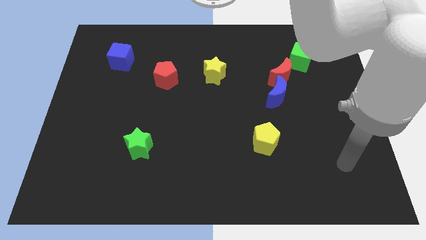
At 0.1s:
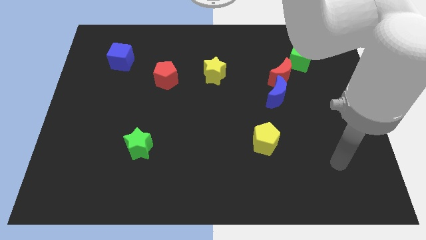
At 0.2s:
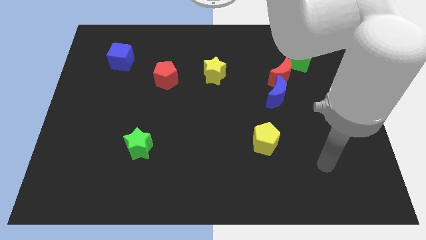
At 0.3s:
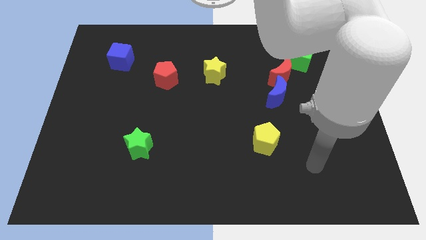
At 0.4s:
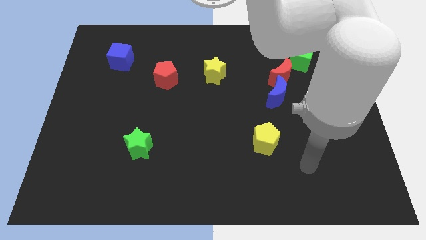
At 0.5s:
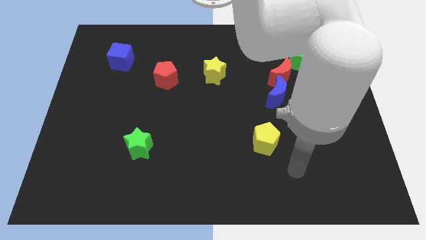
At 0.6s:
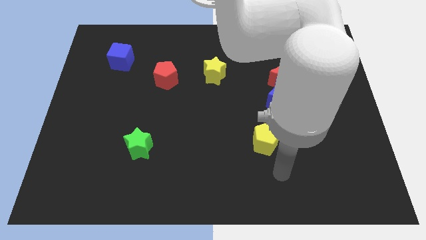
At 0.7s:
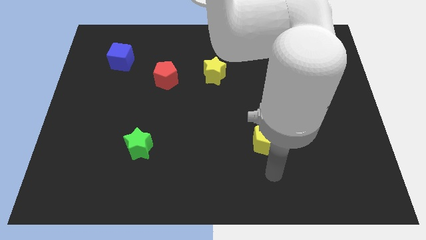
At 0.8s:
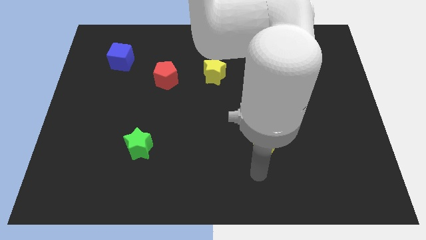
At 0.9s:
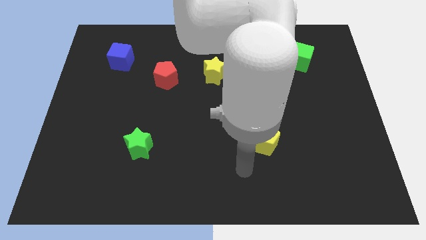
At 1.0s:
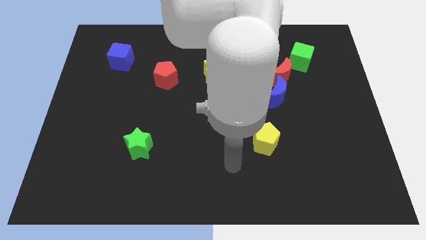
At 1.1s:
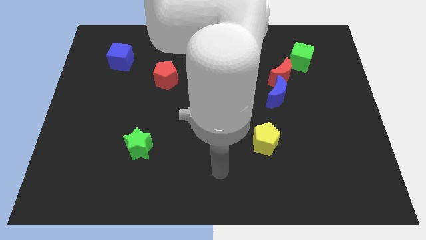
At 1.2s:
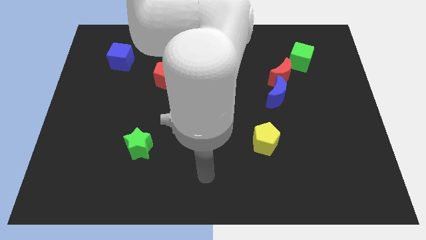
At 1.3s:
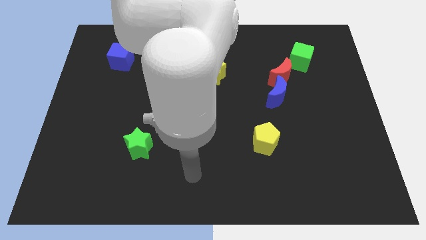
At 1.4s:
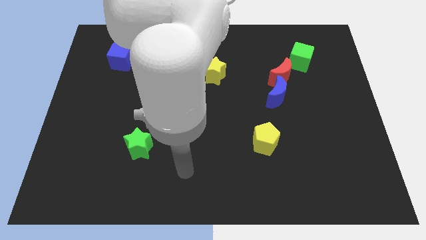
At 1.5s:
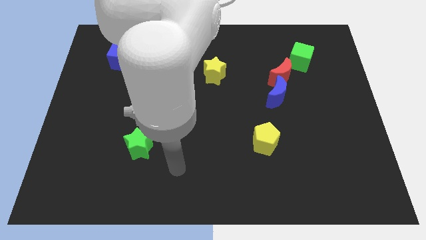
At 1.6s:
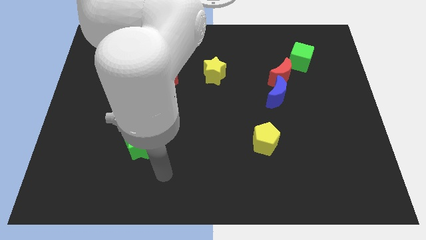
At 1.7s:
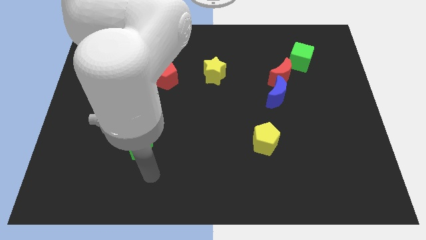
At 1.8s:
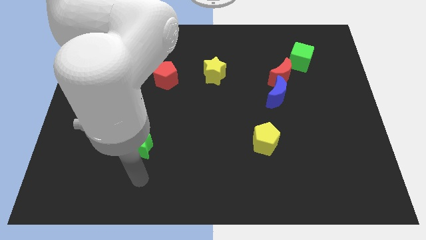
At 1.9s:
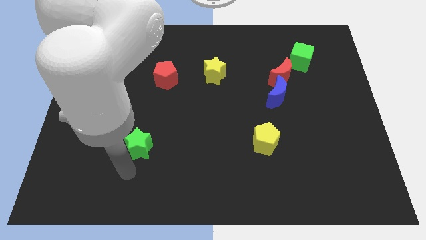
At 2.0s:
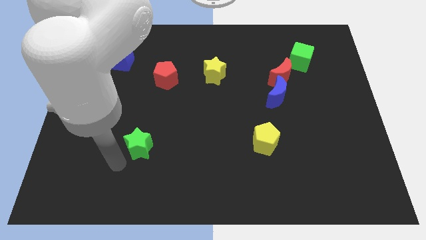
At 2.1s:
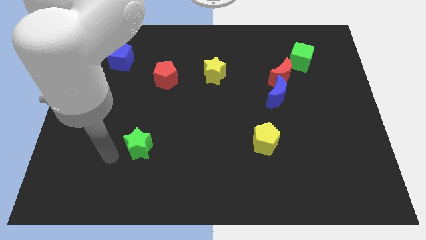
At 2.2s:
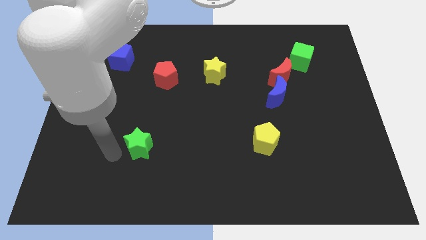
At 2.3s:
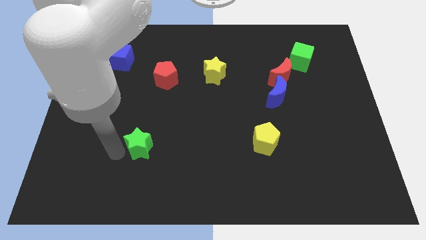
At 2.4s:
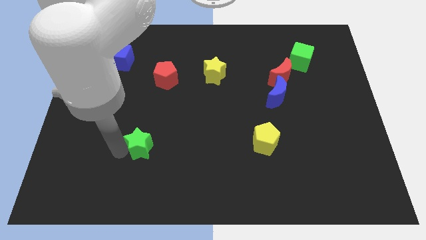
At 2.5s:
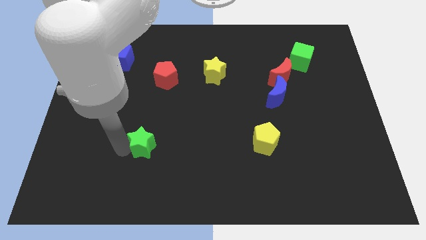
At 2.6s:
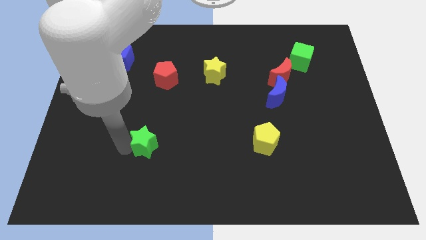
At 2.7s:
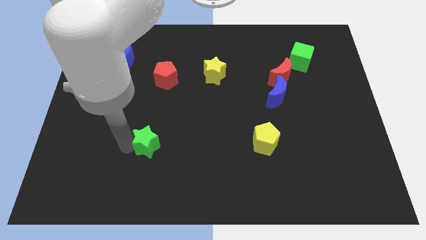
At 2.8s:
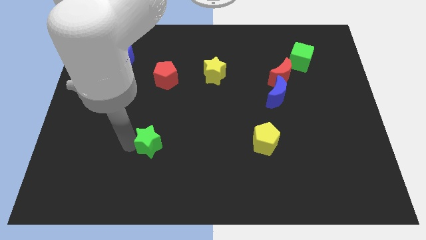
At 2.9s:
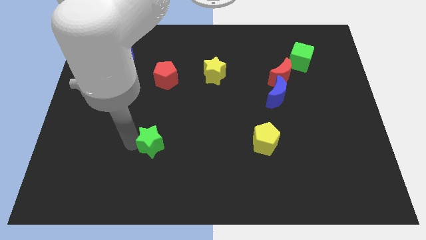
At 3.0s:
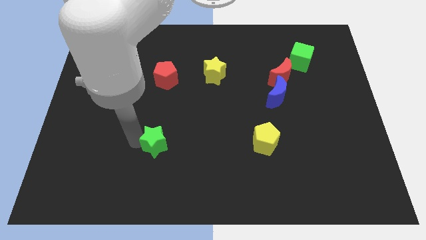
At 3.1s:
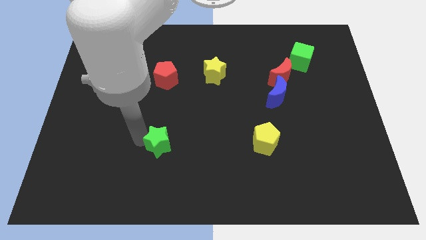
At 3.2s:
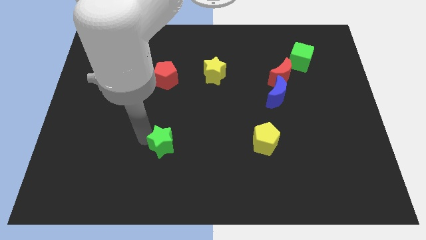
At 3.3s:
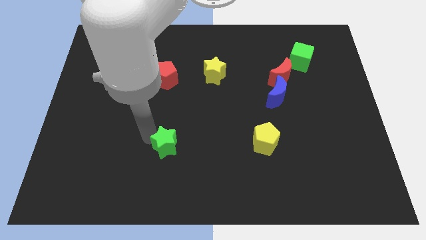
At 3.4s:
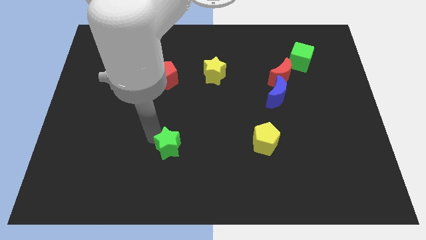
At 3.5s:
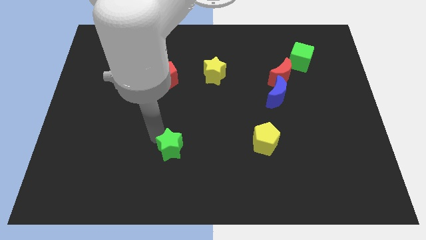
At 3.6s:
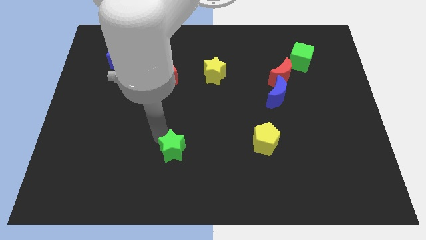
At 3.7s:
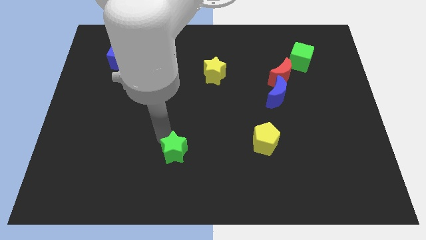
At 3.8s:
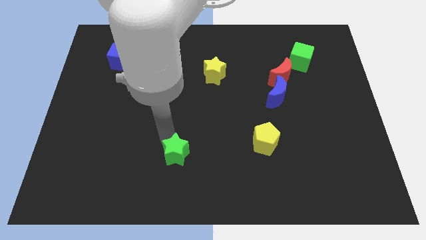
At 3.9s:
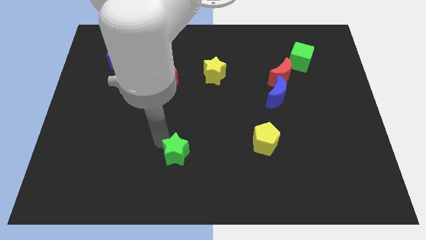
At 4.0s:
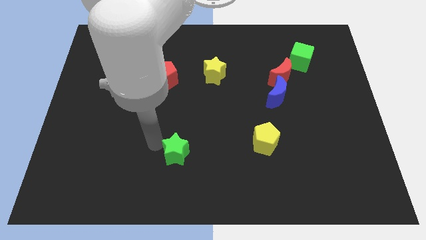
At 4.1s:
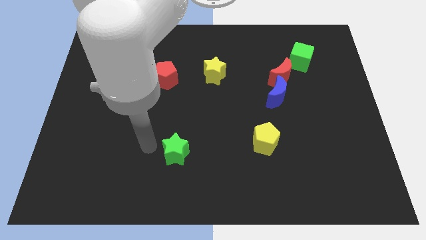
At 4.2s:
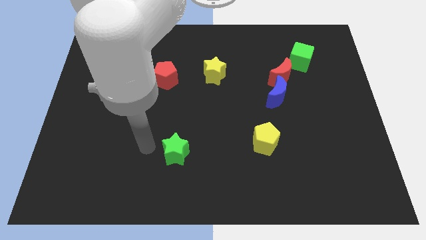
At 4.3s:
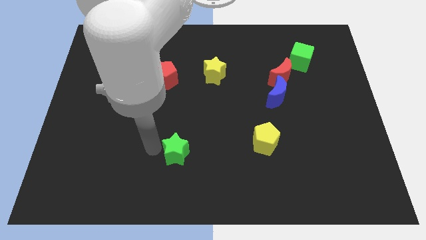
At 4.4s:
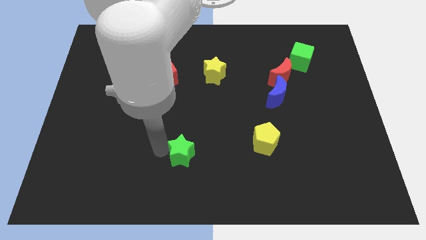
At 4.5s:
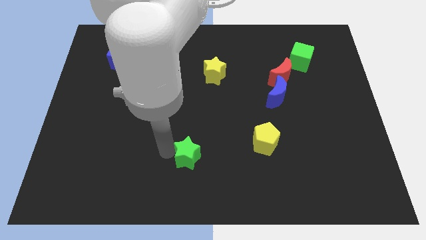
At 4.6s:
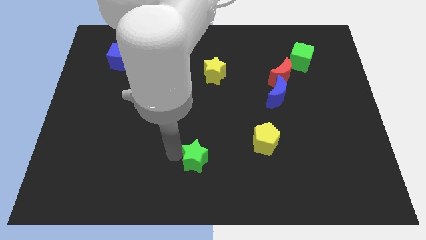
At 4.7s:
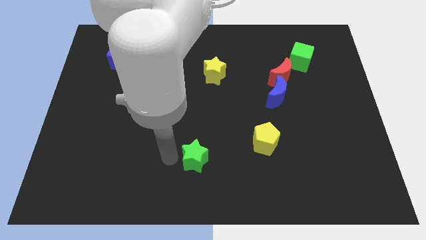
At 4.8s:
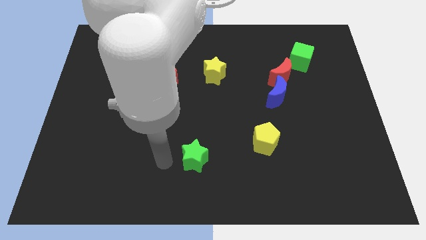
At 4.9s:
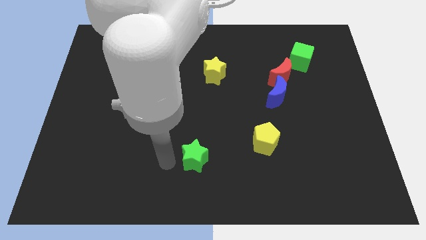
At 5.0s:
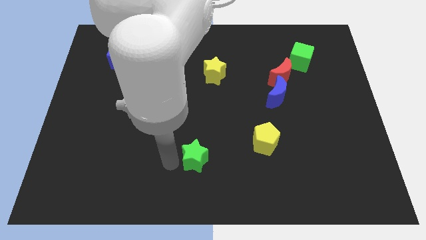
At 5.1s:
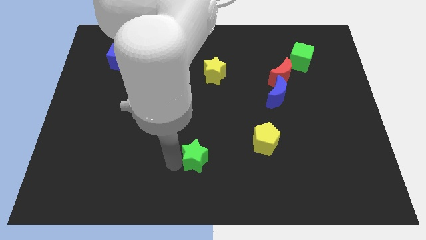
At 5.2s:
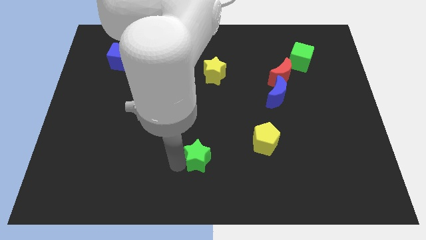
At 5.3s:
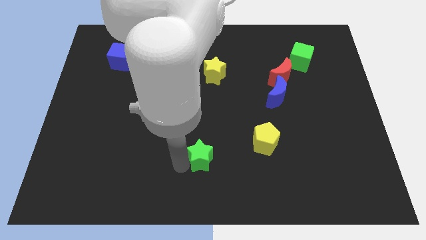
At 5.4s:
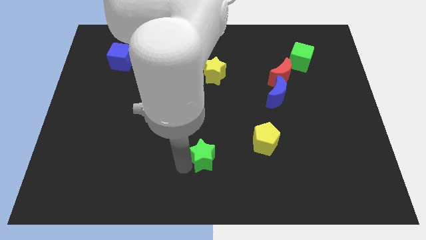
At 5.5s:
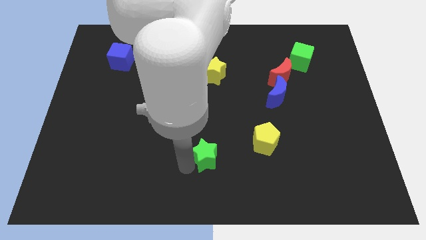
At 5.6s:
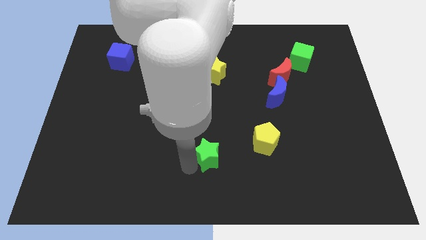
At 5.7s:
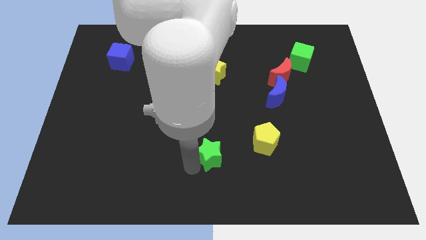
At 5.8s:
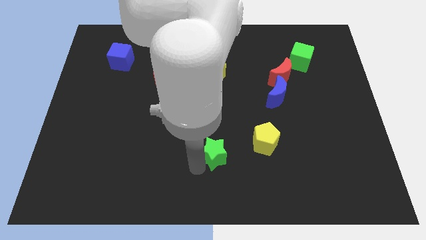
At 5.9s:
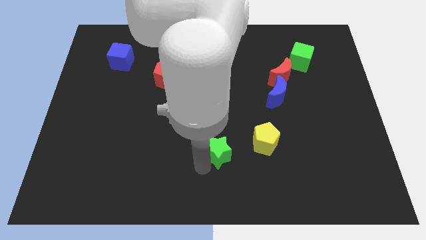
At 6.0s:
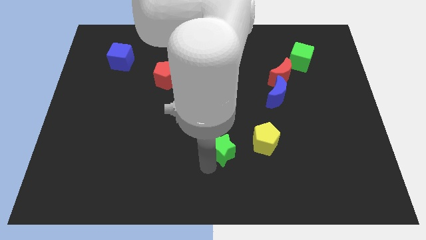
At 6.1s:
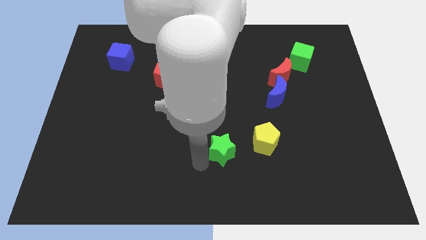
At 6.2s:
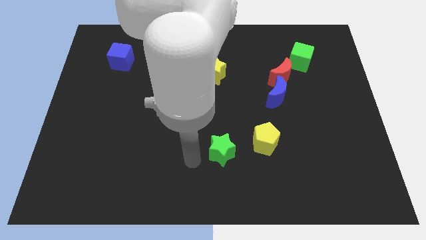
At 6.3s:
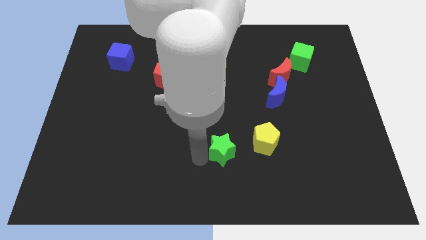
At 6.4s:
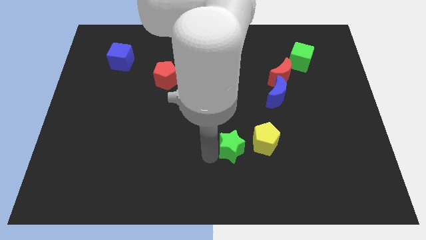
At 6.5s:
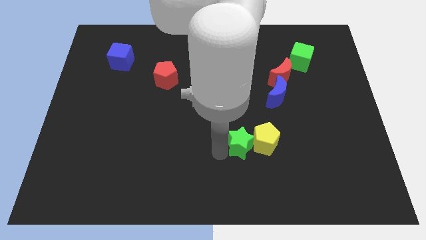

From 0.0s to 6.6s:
slide the green star close to the yellow pentagon

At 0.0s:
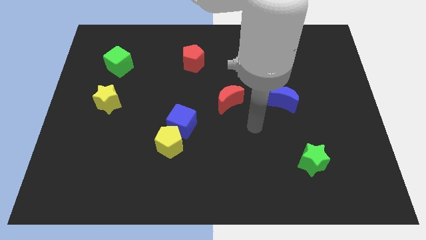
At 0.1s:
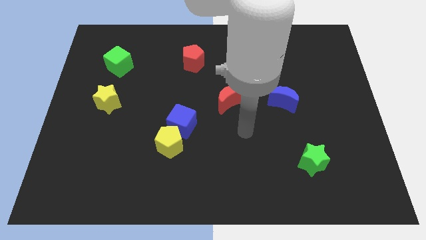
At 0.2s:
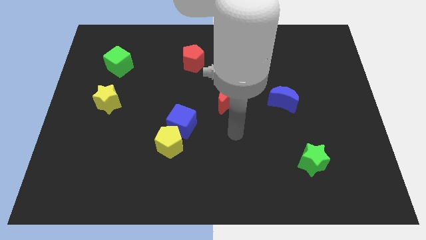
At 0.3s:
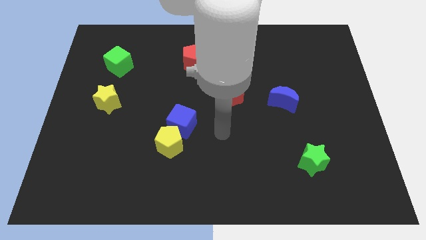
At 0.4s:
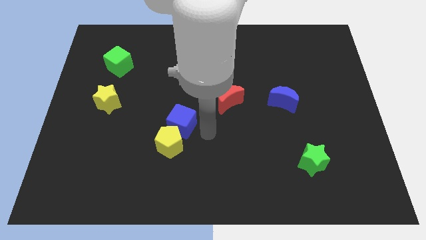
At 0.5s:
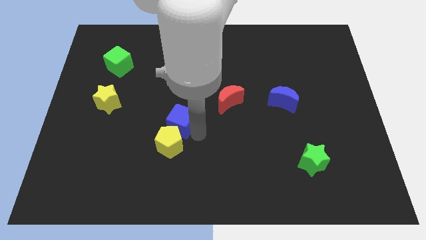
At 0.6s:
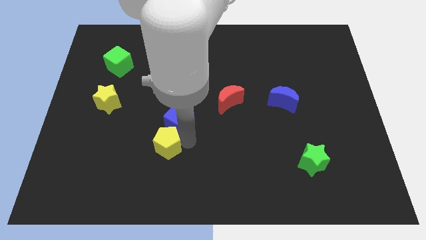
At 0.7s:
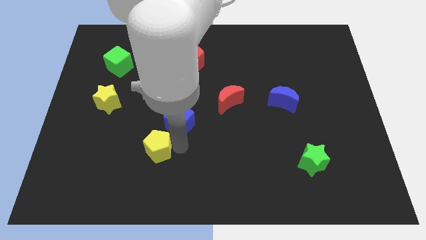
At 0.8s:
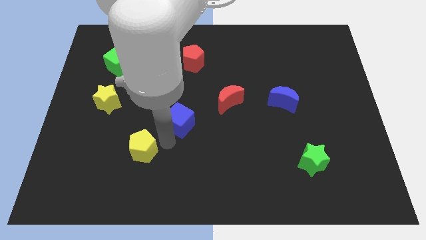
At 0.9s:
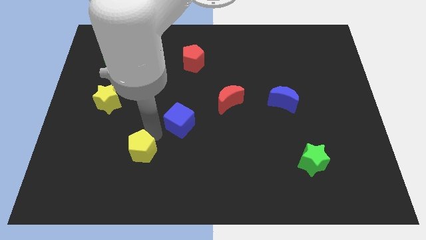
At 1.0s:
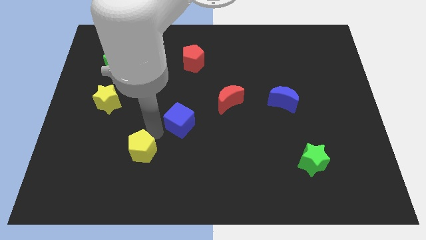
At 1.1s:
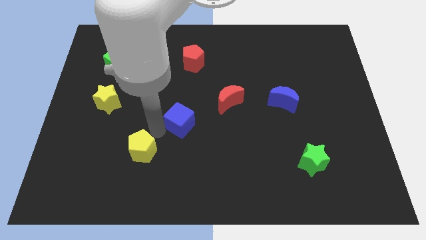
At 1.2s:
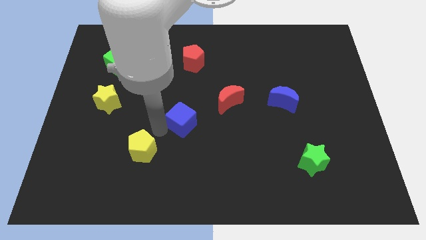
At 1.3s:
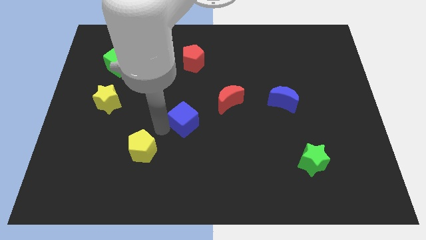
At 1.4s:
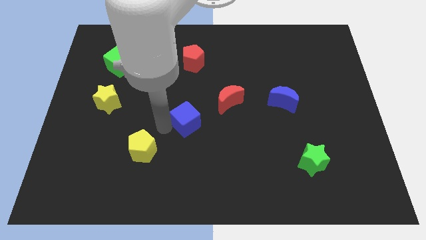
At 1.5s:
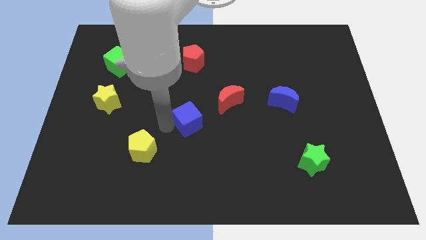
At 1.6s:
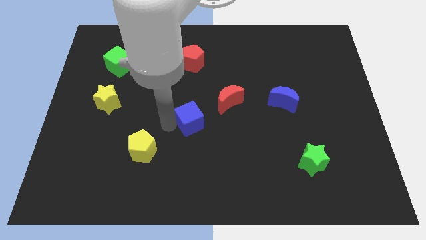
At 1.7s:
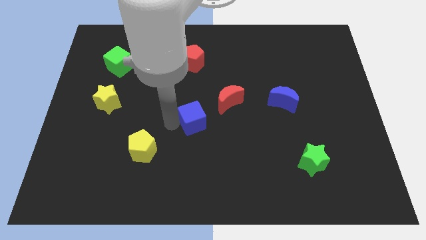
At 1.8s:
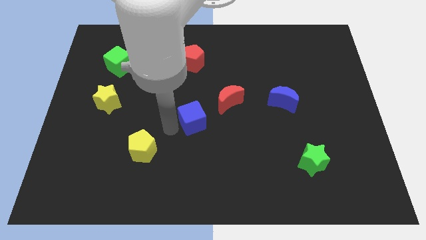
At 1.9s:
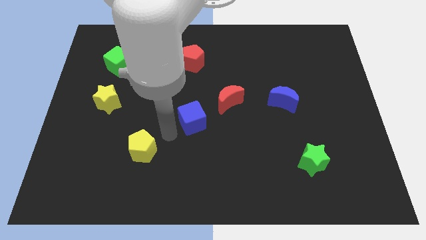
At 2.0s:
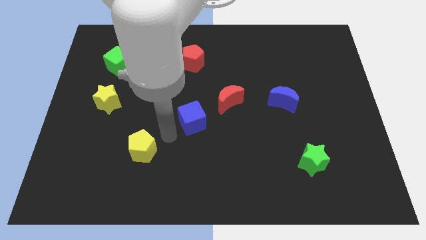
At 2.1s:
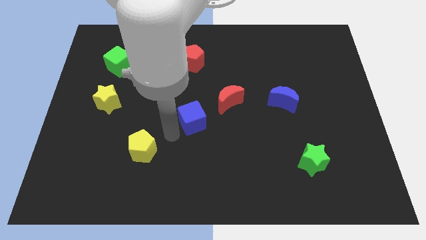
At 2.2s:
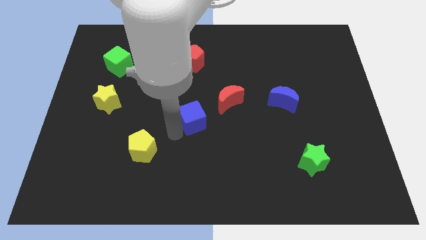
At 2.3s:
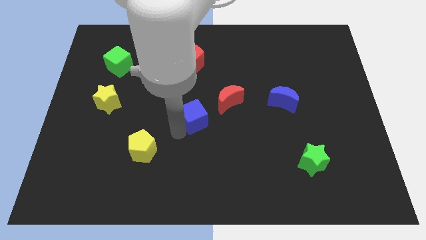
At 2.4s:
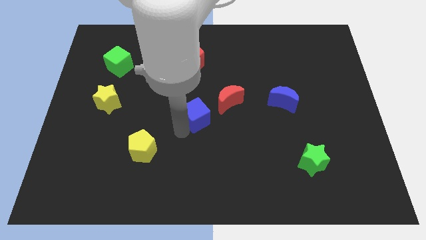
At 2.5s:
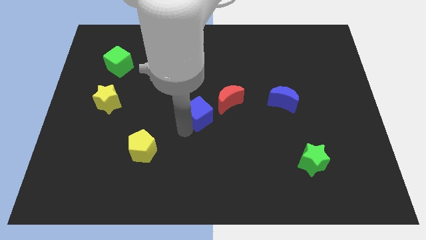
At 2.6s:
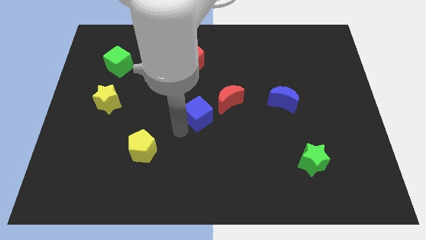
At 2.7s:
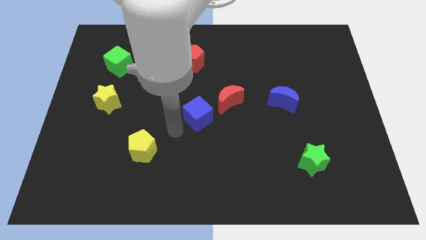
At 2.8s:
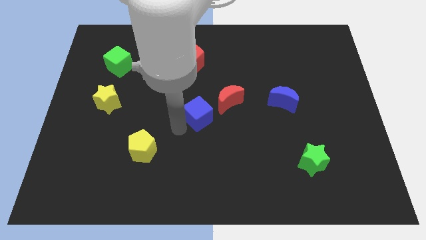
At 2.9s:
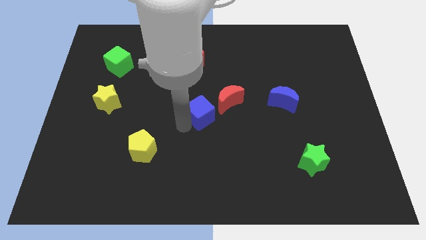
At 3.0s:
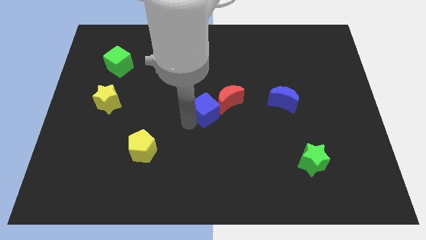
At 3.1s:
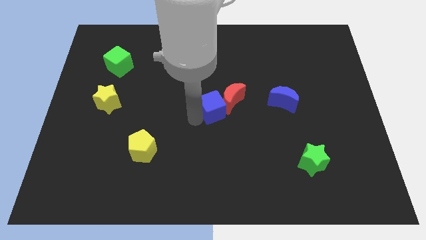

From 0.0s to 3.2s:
put the blue cube next to the red moon
